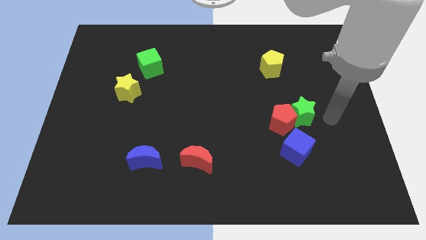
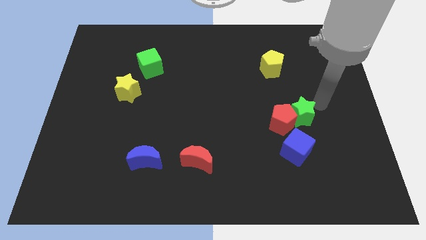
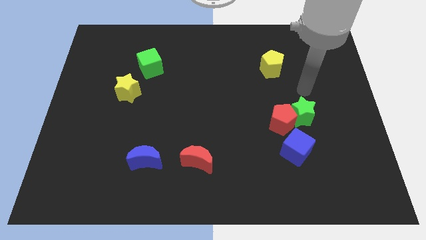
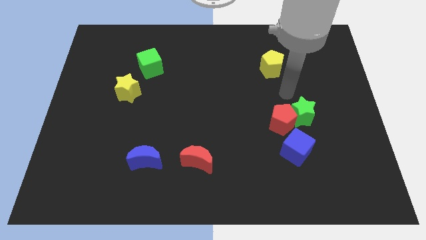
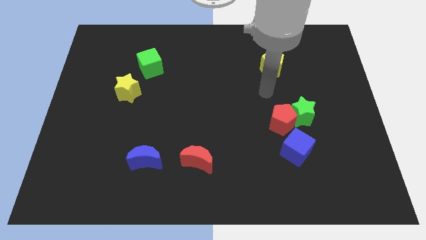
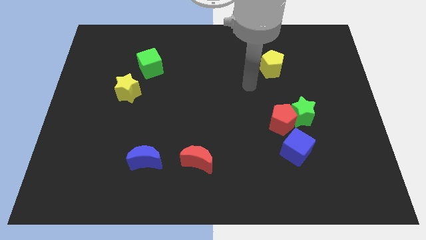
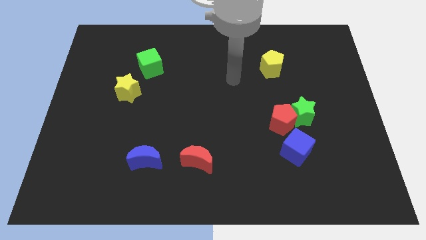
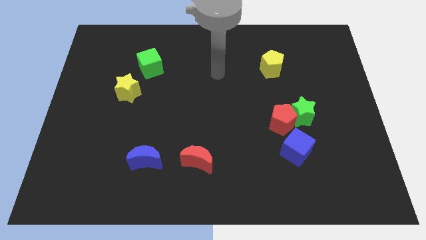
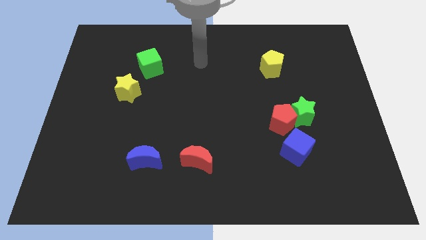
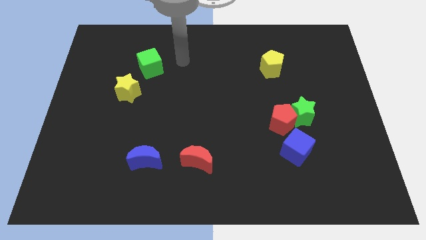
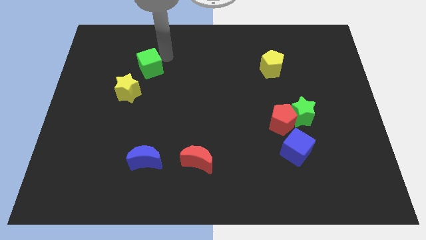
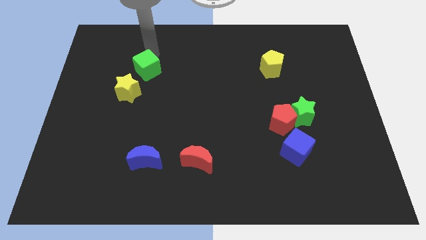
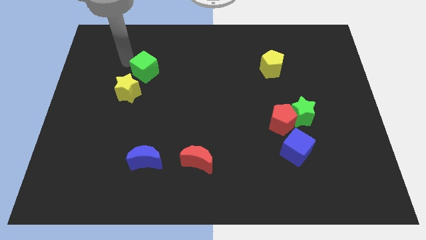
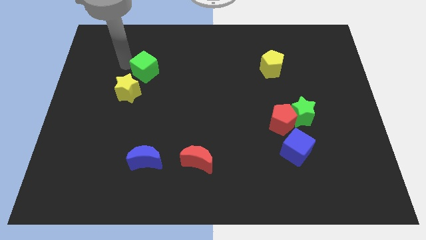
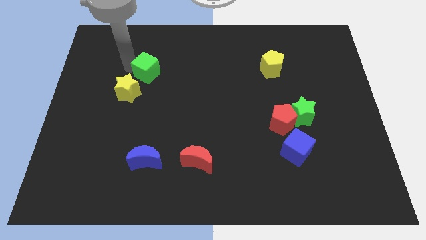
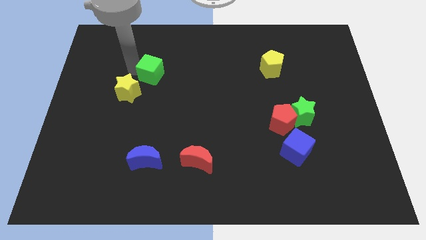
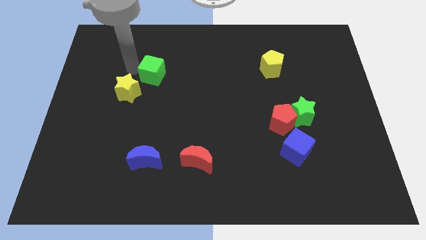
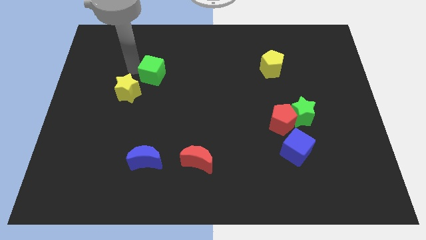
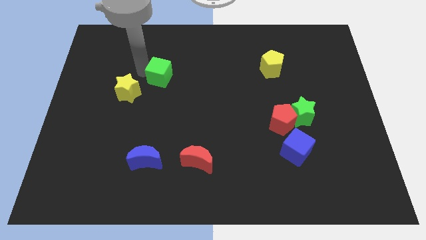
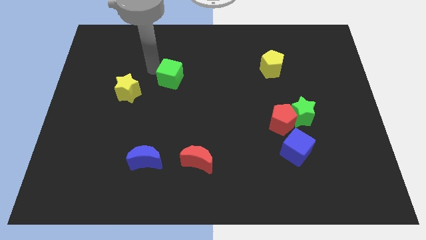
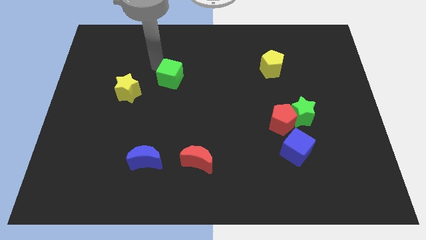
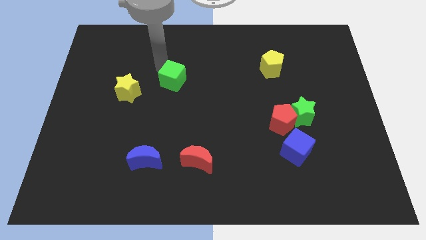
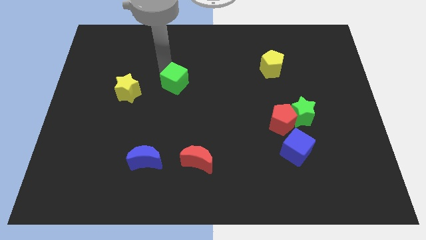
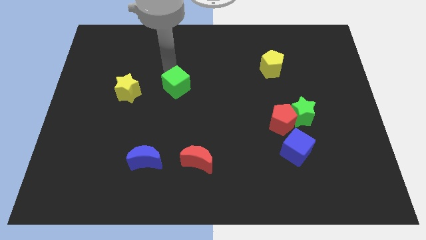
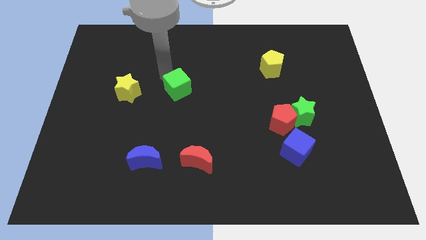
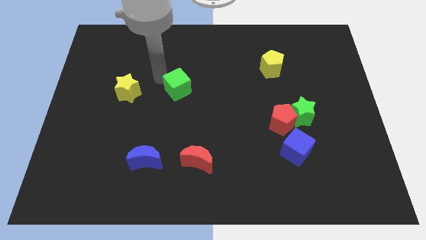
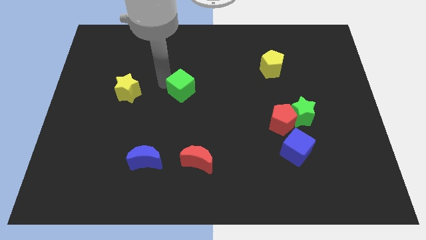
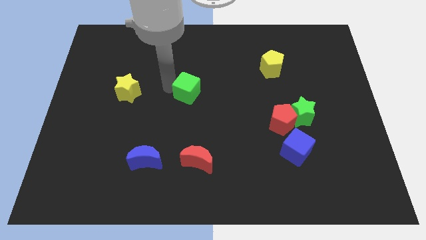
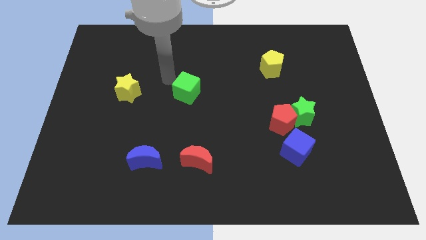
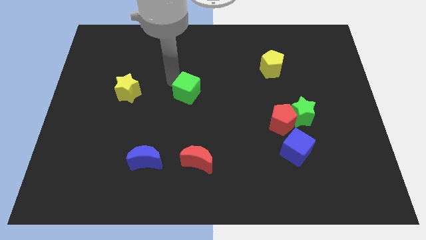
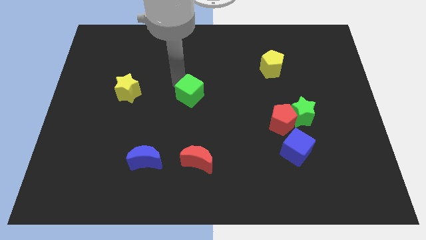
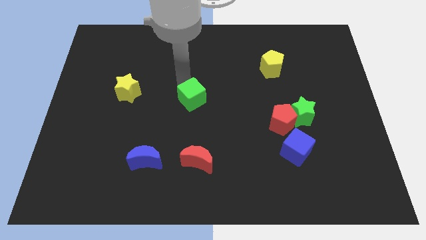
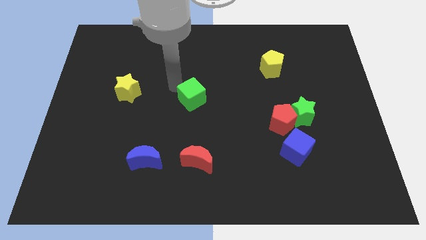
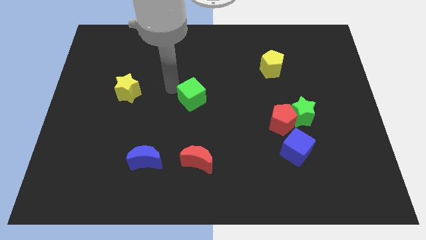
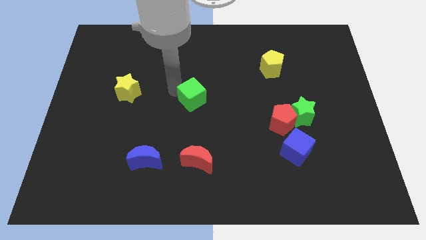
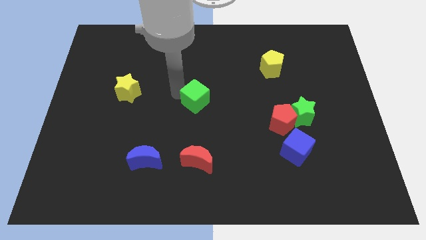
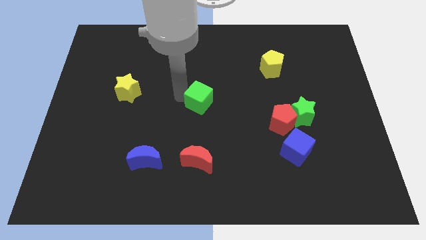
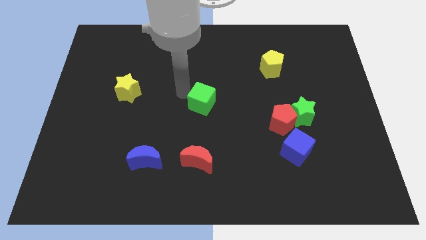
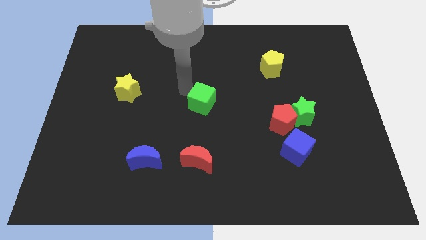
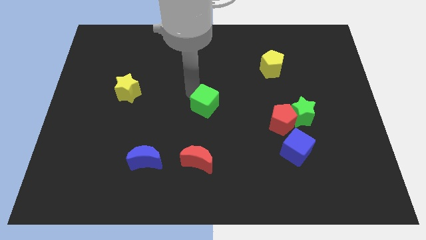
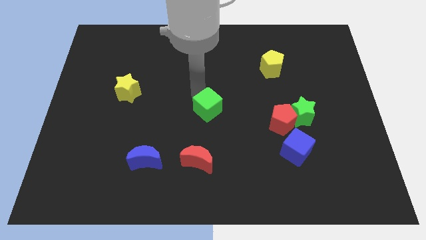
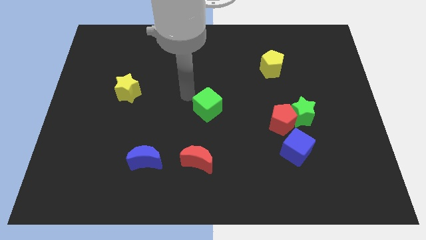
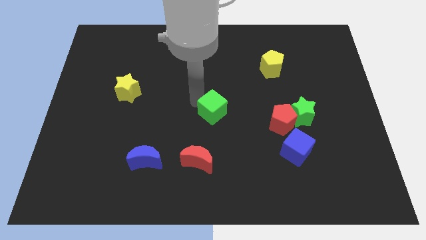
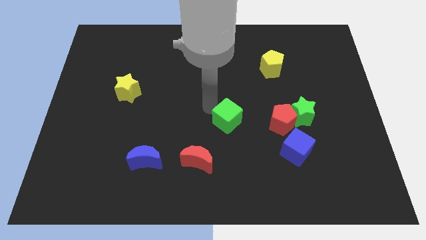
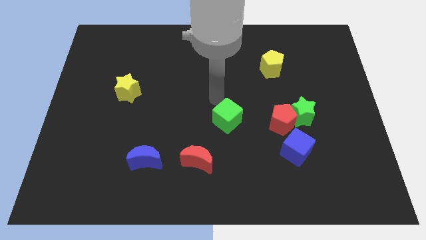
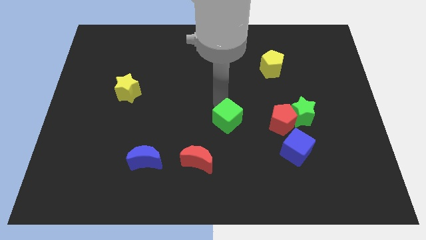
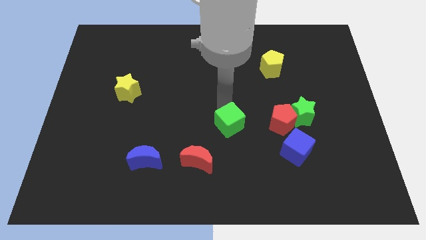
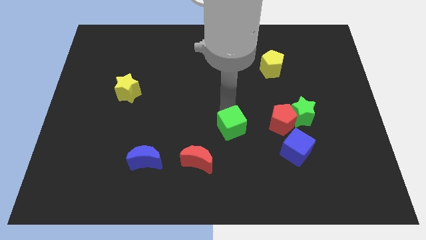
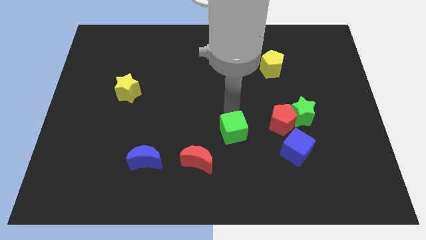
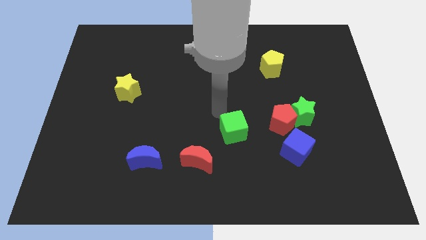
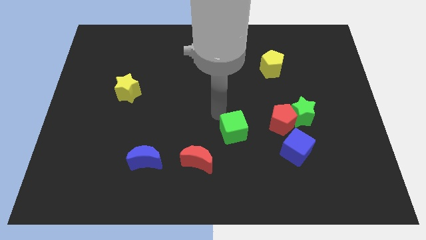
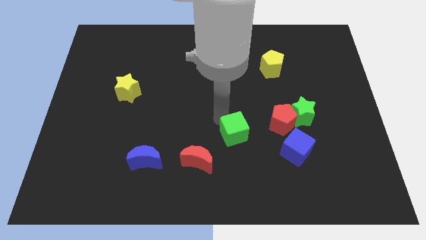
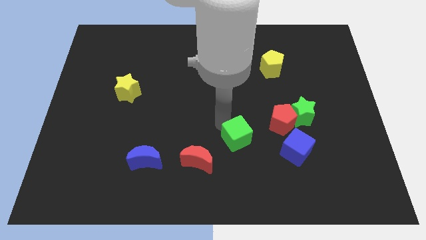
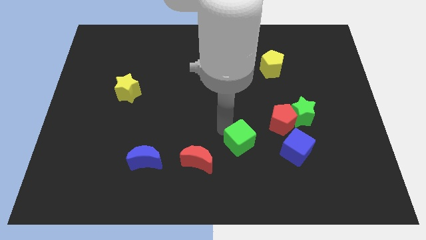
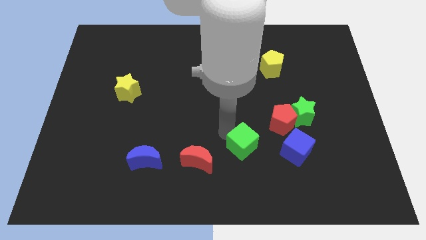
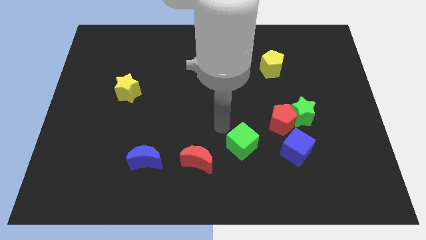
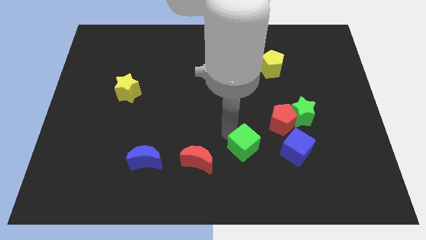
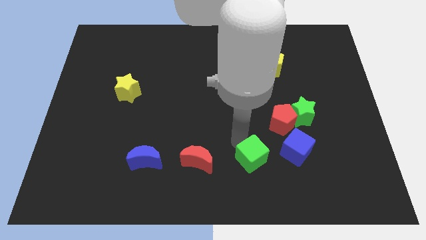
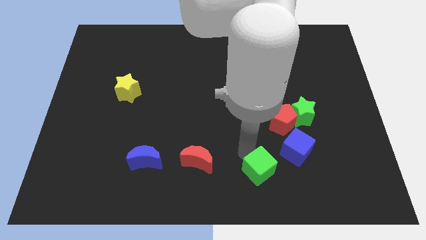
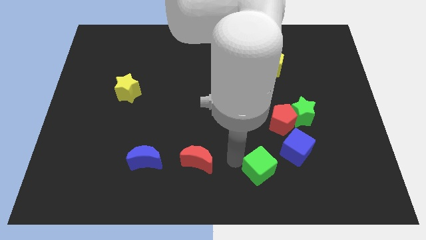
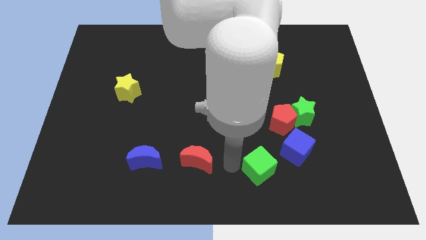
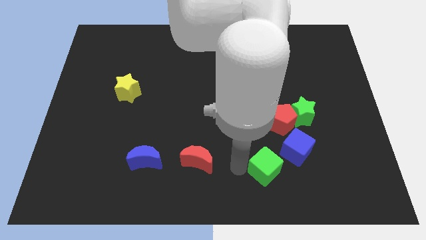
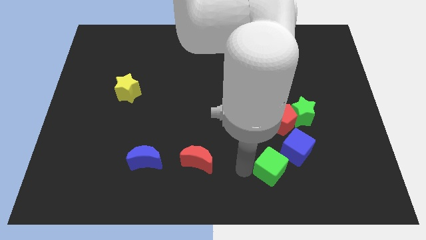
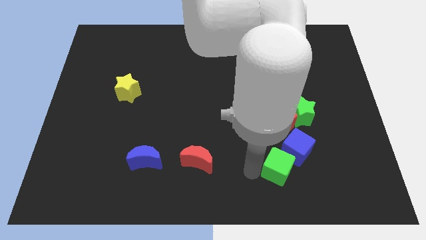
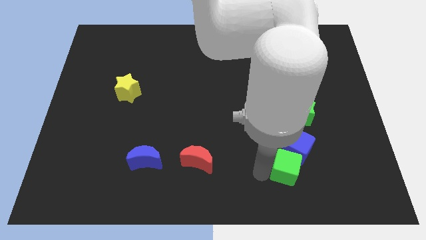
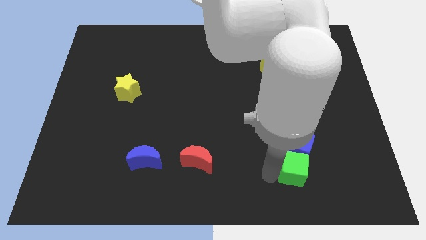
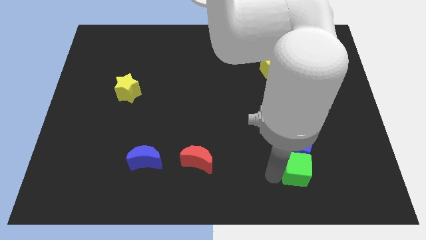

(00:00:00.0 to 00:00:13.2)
slide the green cube diagonally down and to the right of the blue cube

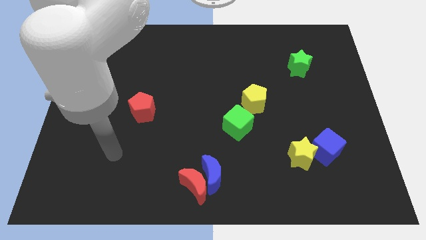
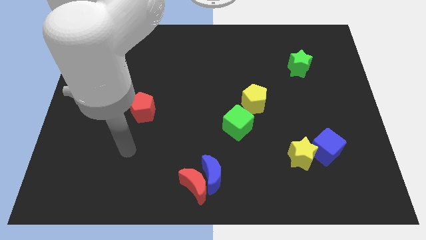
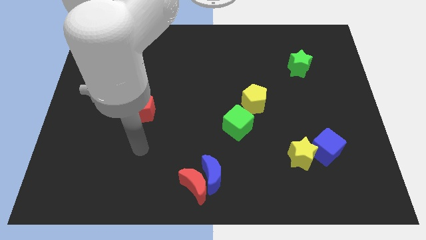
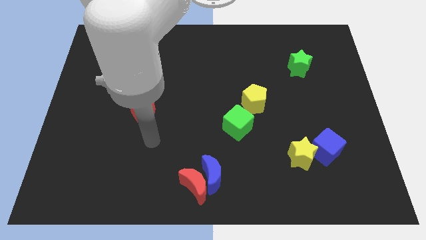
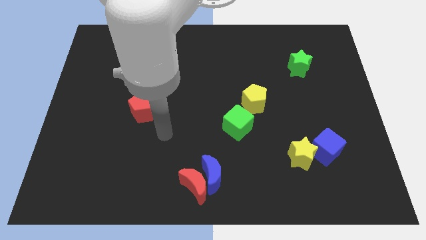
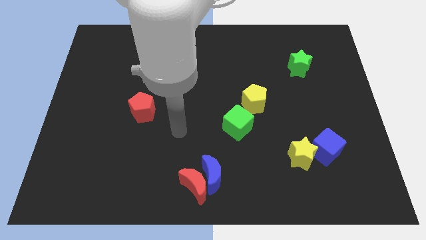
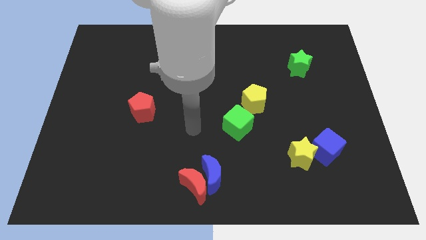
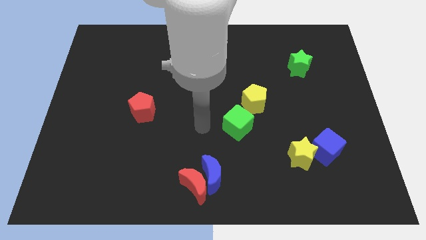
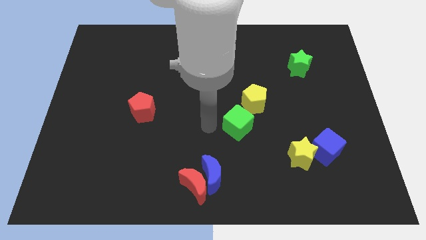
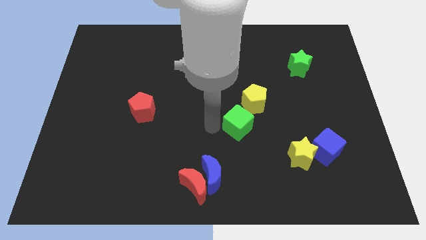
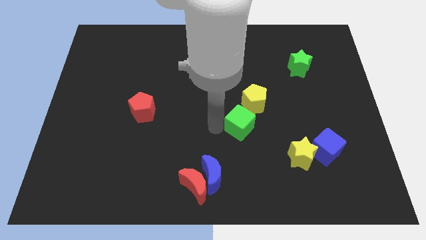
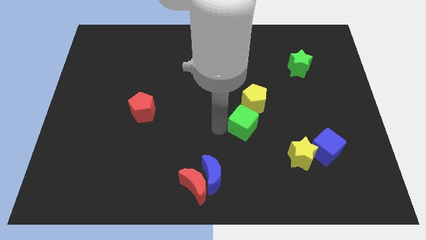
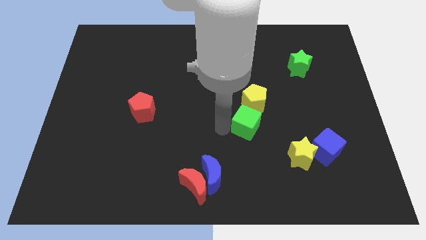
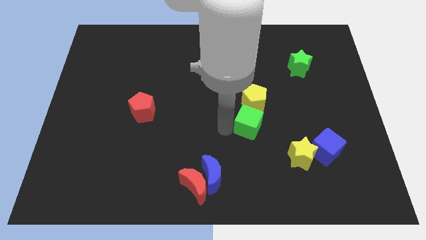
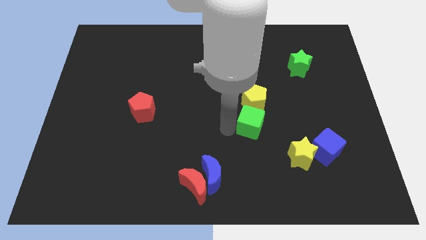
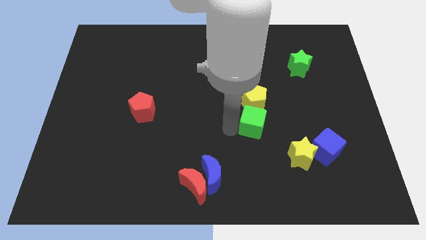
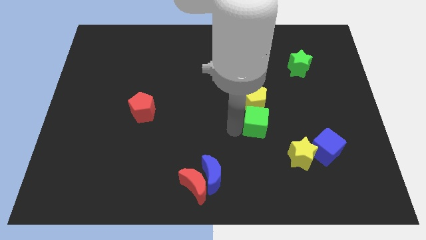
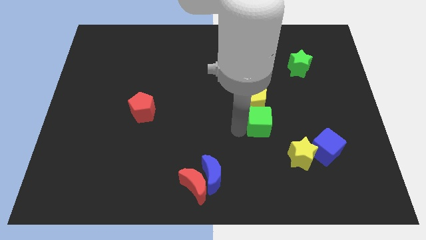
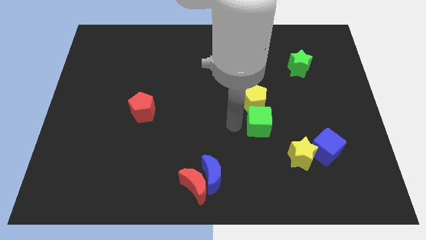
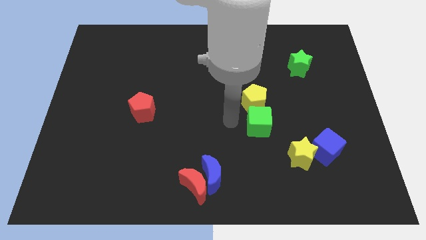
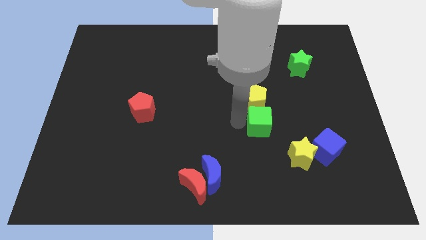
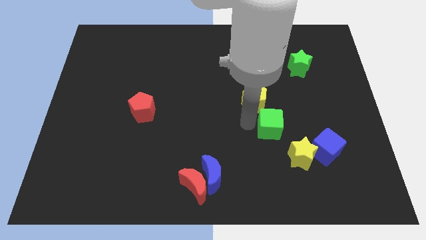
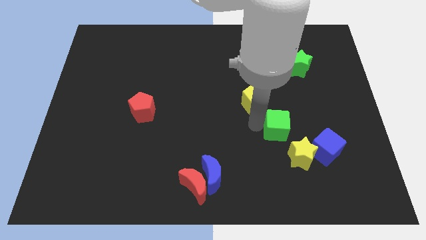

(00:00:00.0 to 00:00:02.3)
push the green cube to the top left side of the blue cube
